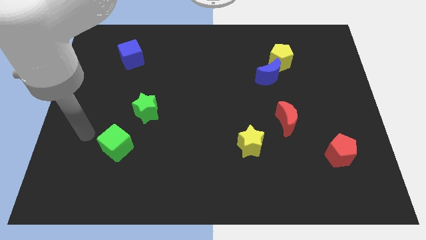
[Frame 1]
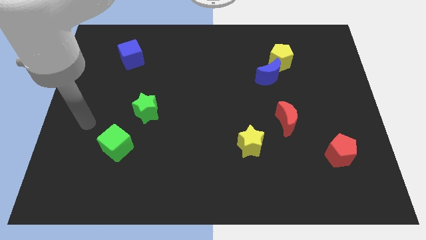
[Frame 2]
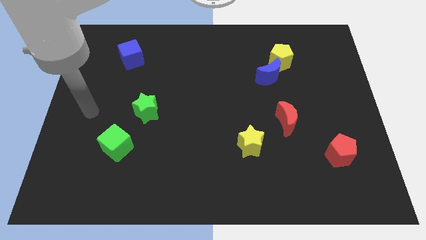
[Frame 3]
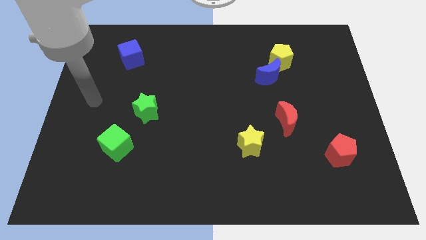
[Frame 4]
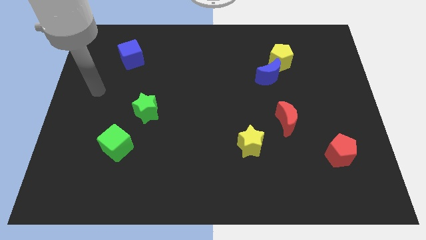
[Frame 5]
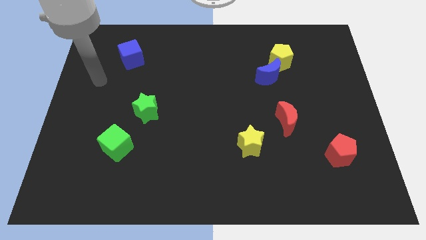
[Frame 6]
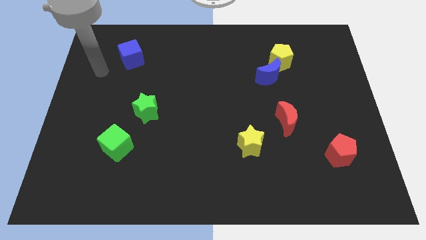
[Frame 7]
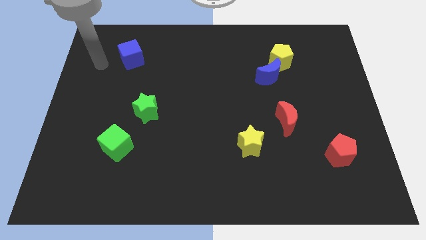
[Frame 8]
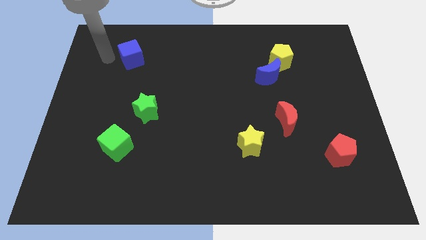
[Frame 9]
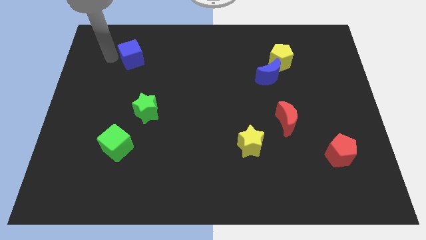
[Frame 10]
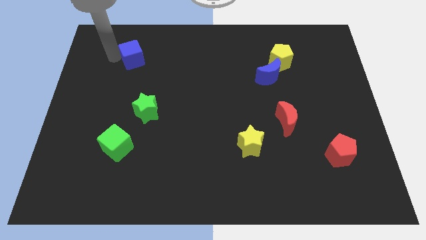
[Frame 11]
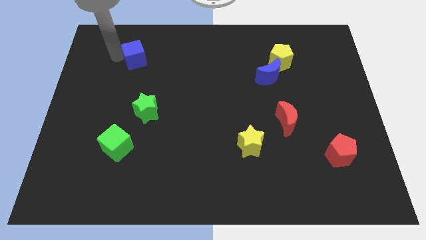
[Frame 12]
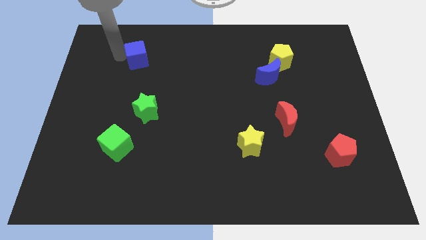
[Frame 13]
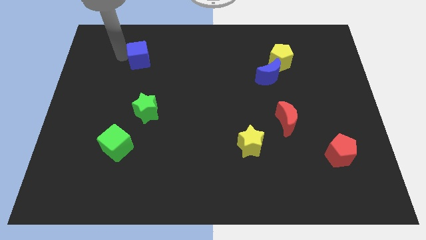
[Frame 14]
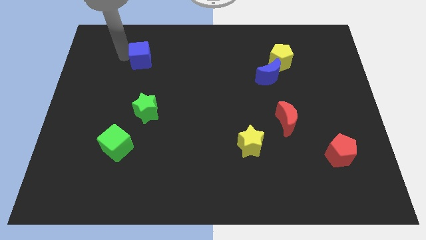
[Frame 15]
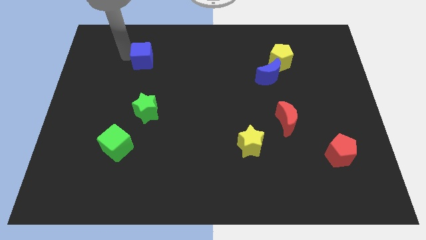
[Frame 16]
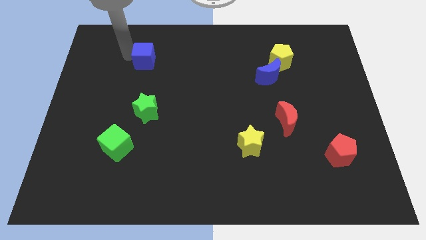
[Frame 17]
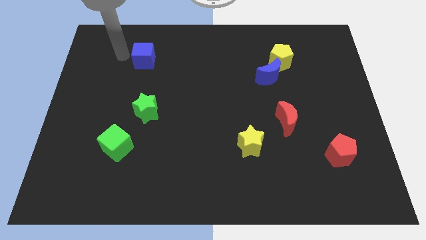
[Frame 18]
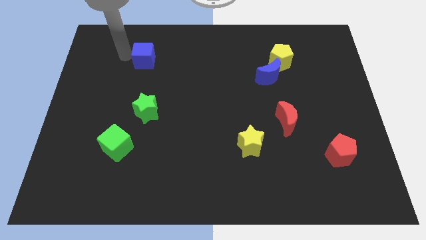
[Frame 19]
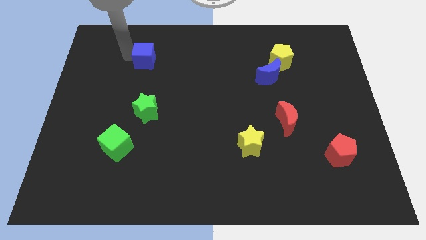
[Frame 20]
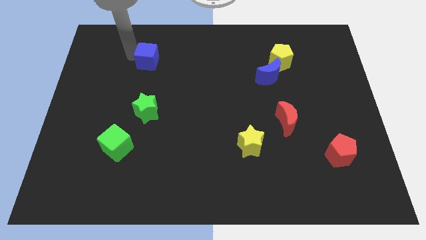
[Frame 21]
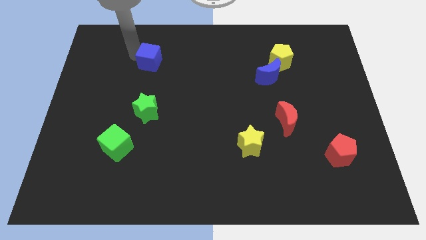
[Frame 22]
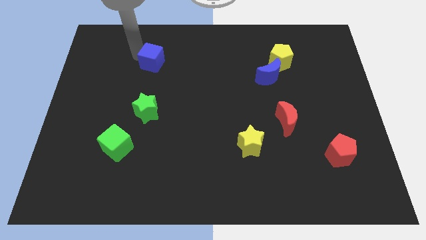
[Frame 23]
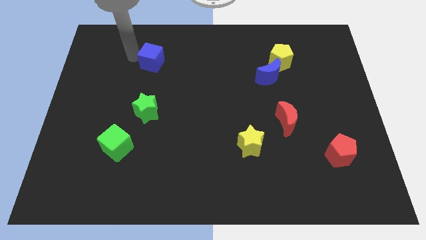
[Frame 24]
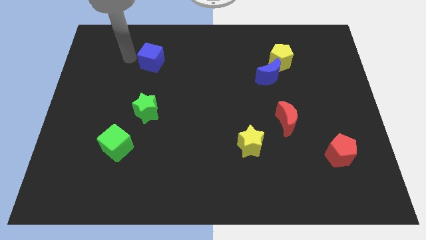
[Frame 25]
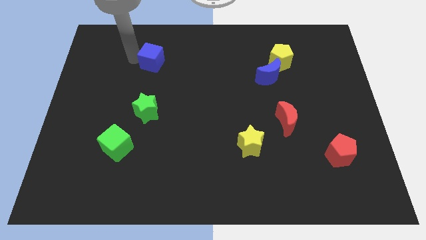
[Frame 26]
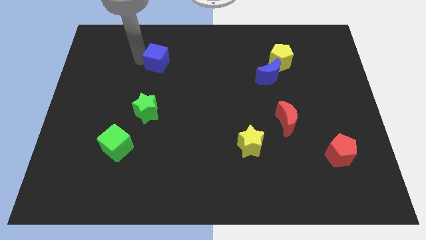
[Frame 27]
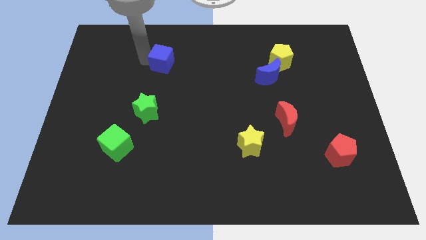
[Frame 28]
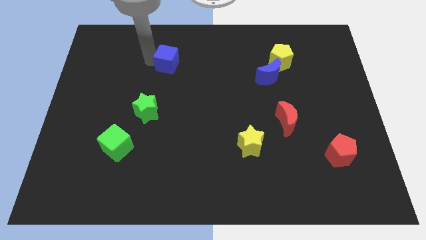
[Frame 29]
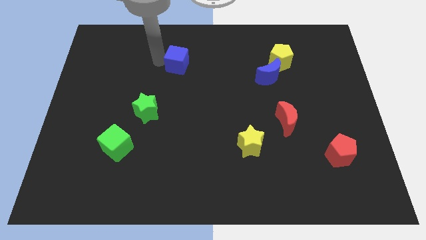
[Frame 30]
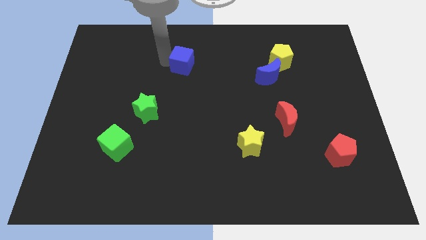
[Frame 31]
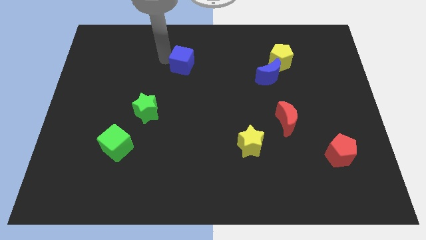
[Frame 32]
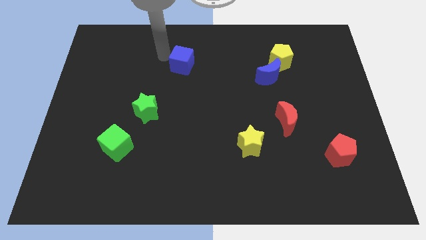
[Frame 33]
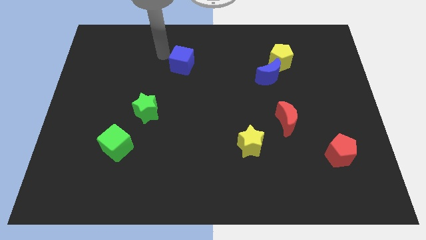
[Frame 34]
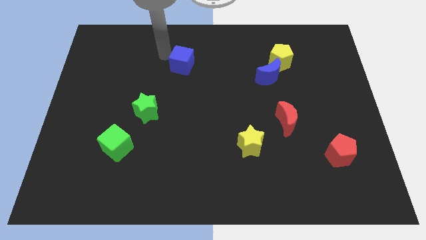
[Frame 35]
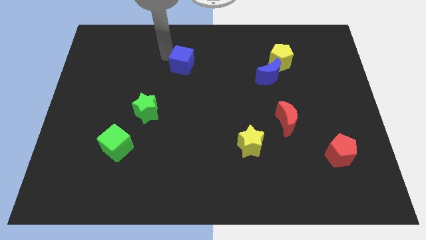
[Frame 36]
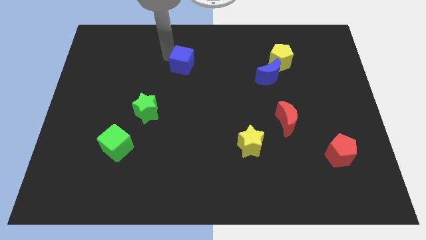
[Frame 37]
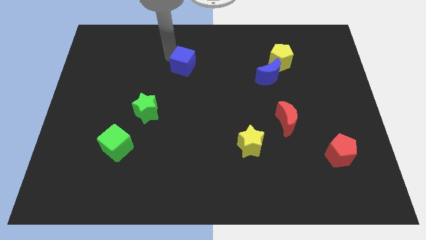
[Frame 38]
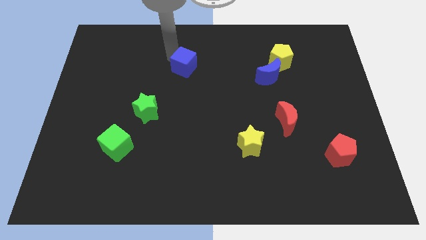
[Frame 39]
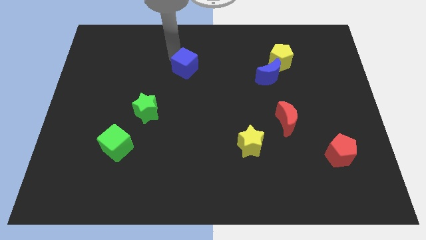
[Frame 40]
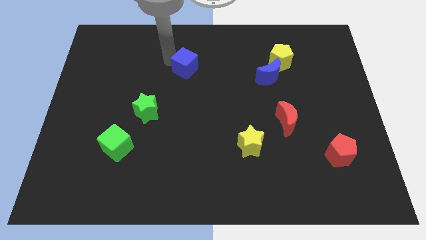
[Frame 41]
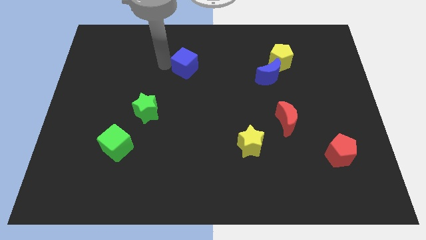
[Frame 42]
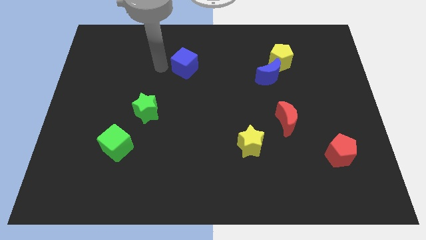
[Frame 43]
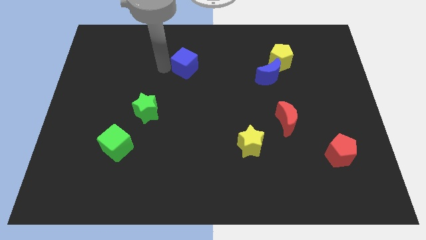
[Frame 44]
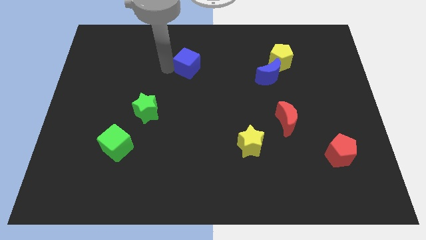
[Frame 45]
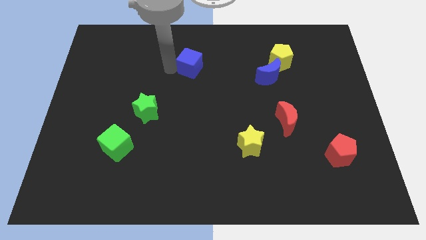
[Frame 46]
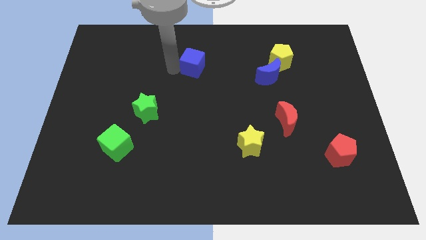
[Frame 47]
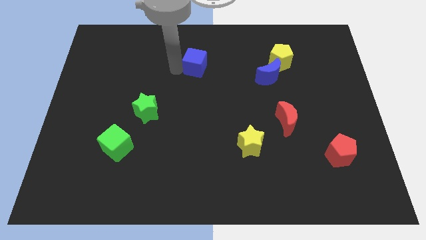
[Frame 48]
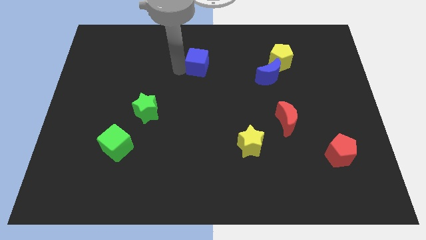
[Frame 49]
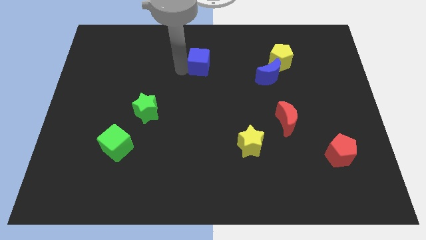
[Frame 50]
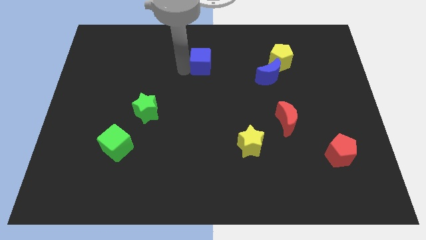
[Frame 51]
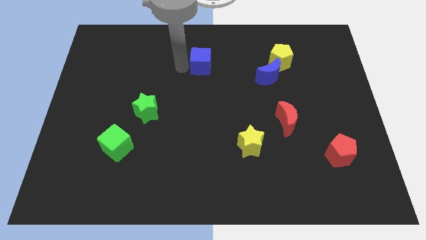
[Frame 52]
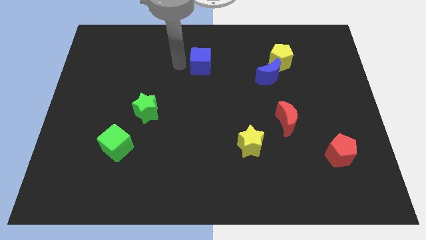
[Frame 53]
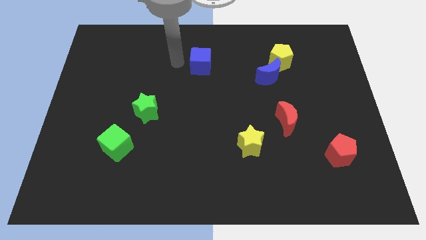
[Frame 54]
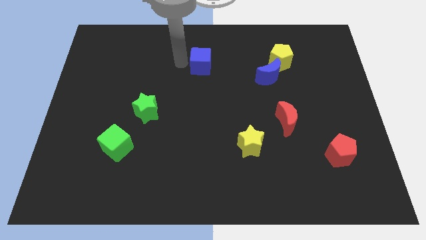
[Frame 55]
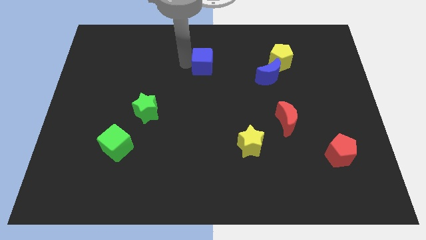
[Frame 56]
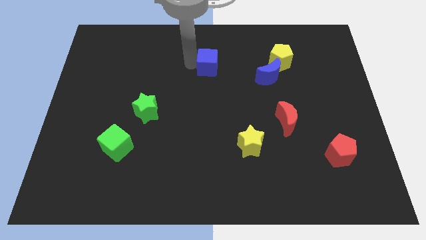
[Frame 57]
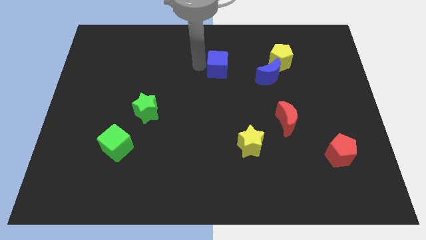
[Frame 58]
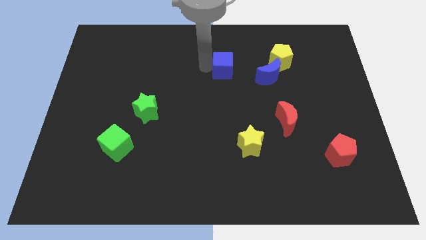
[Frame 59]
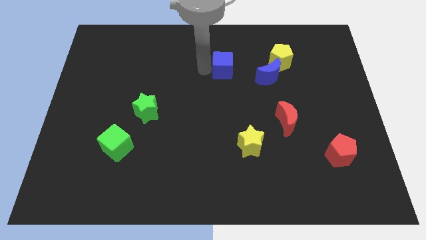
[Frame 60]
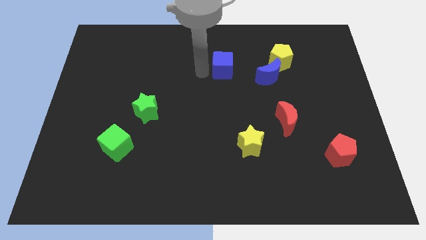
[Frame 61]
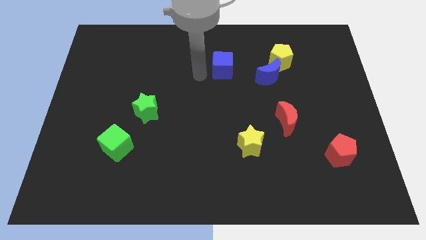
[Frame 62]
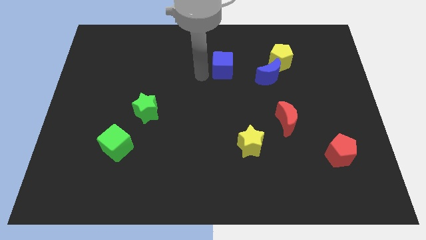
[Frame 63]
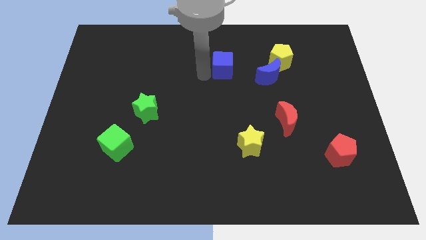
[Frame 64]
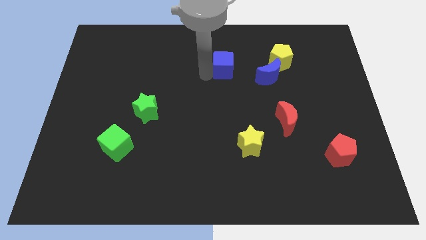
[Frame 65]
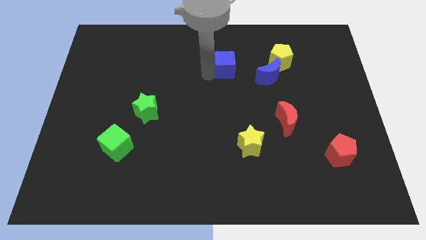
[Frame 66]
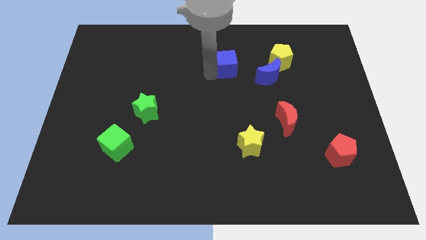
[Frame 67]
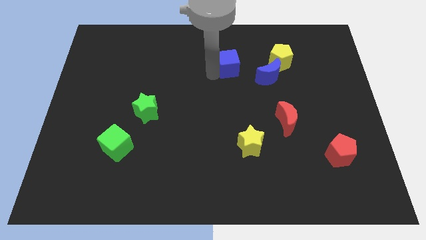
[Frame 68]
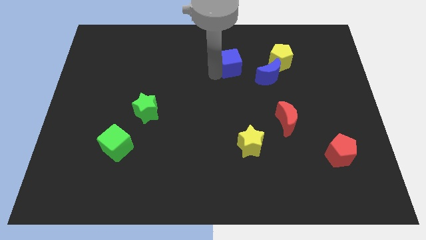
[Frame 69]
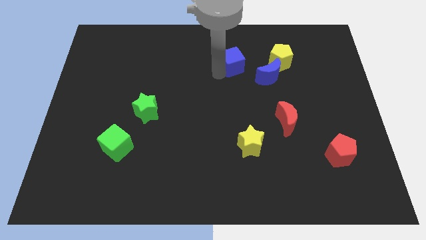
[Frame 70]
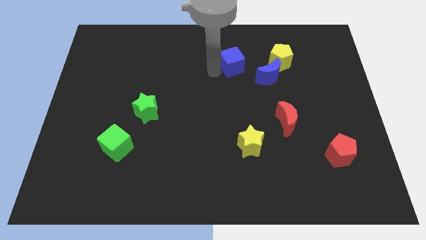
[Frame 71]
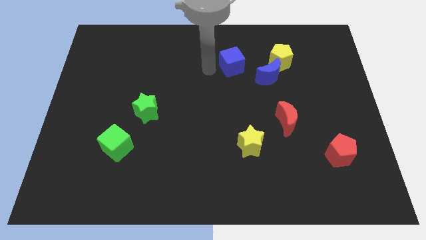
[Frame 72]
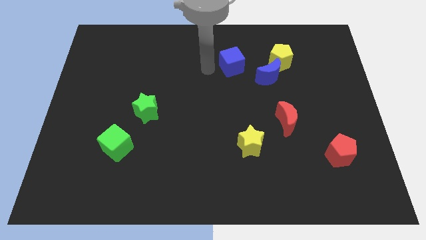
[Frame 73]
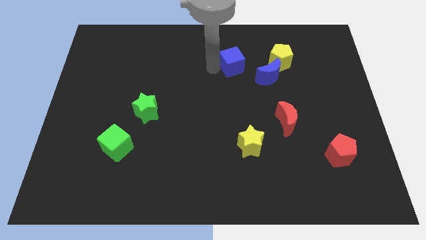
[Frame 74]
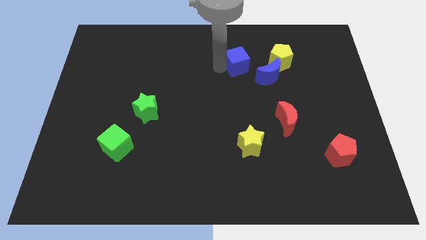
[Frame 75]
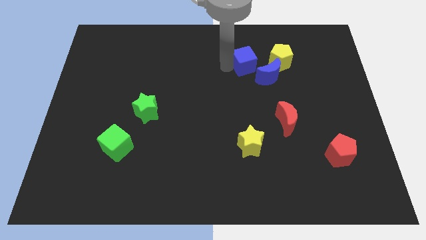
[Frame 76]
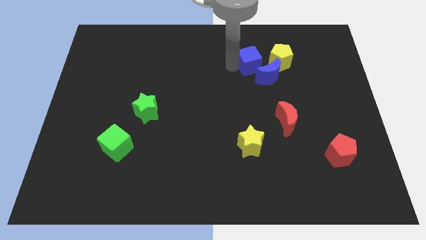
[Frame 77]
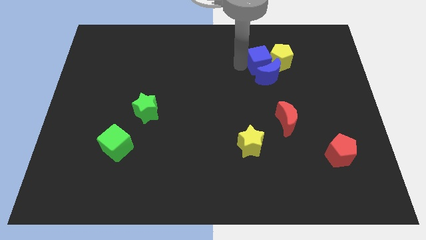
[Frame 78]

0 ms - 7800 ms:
put the blue cube close to the yellow pentagon
